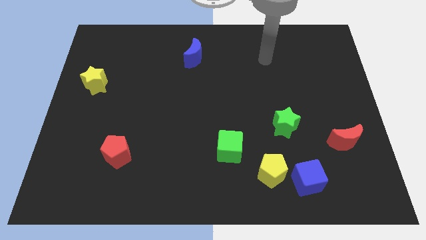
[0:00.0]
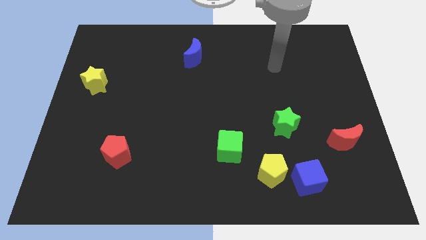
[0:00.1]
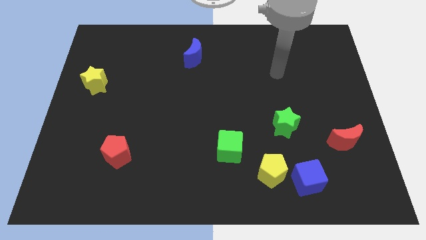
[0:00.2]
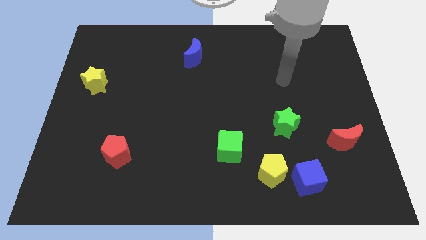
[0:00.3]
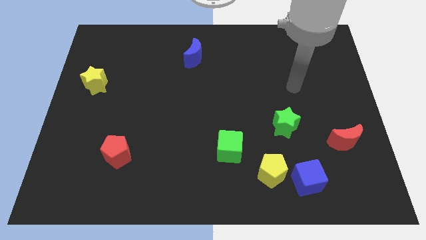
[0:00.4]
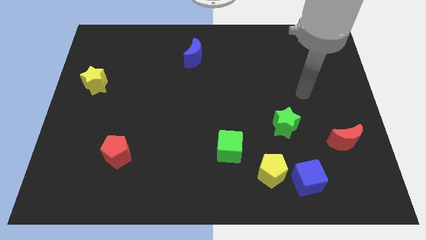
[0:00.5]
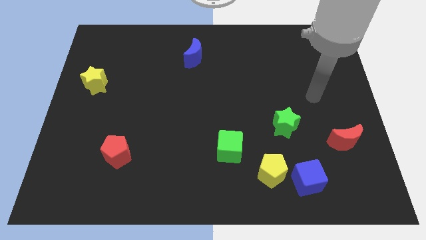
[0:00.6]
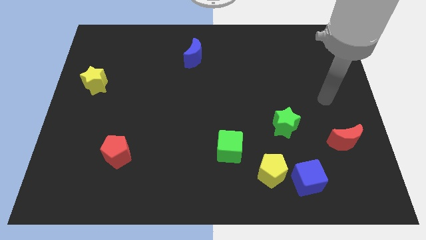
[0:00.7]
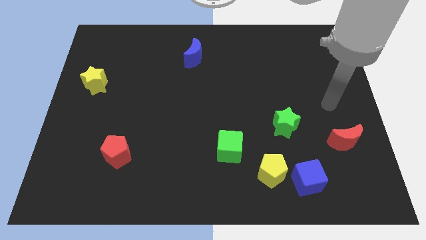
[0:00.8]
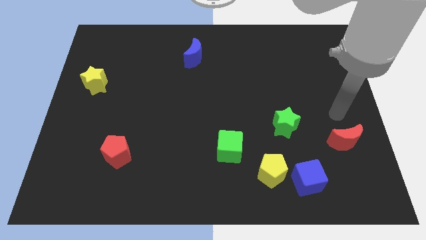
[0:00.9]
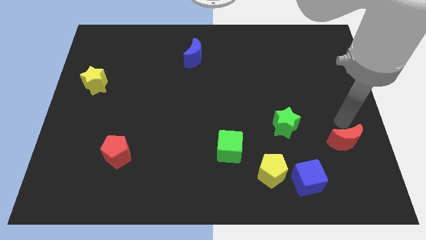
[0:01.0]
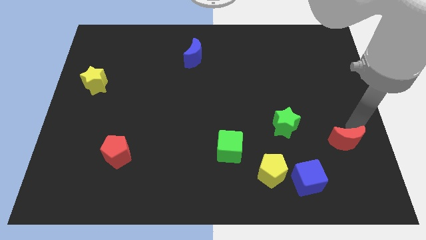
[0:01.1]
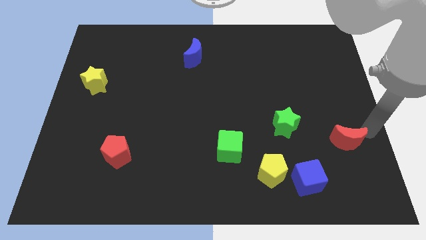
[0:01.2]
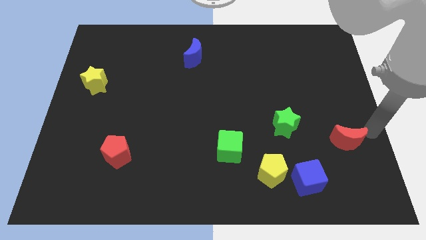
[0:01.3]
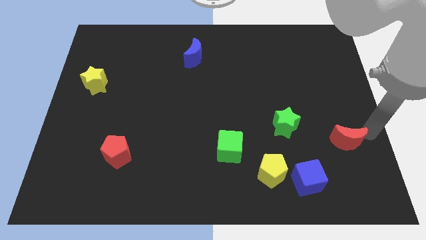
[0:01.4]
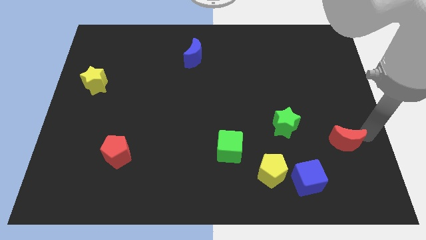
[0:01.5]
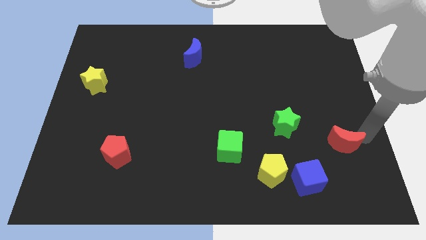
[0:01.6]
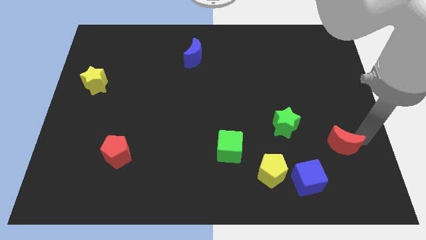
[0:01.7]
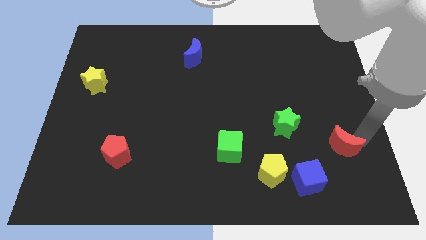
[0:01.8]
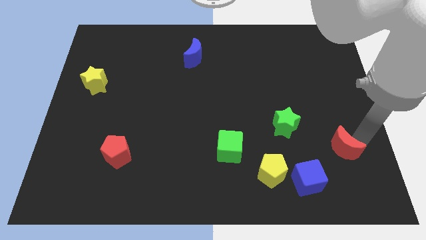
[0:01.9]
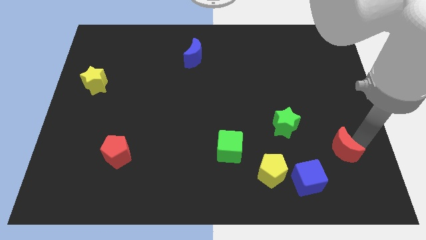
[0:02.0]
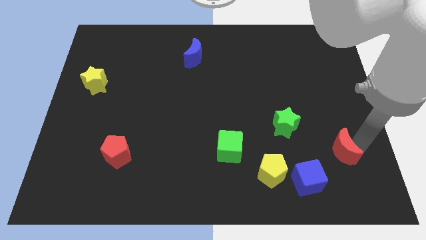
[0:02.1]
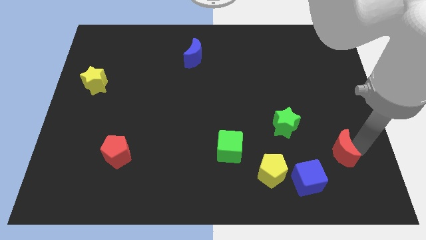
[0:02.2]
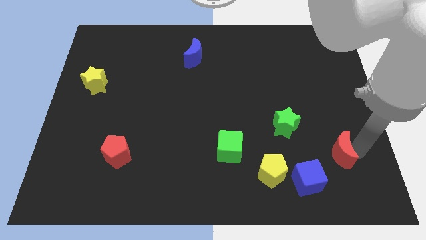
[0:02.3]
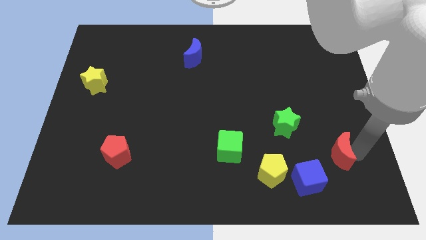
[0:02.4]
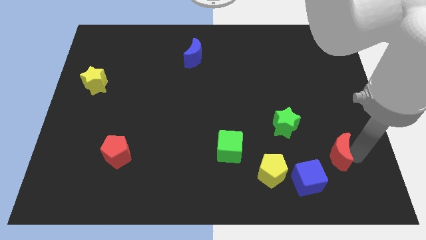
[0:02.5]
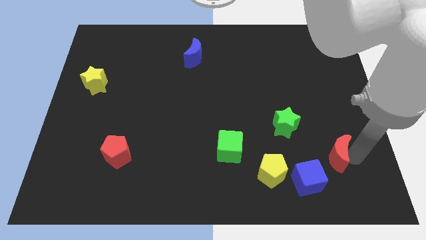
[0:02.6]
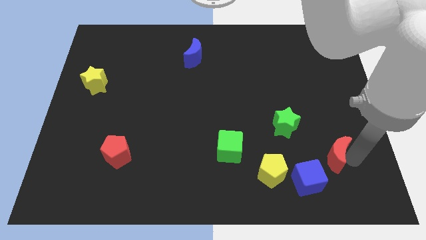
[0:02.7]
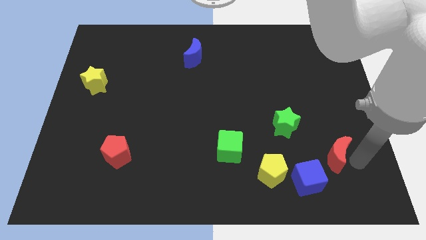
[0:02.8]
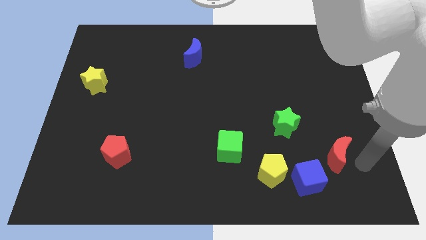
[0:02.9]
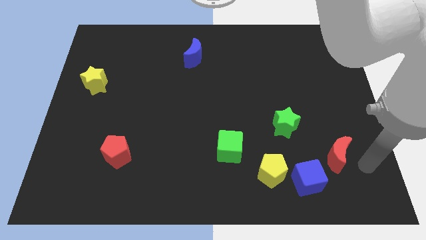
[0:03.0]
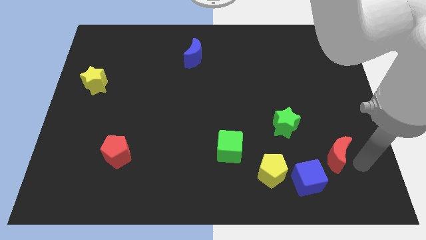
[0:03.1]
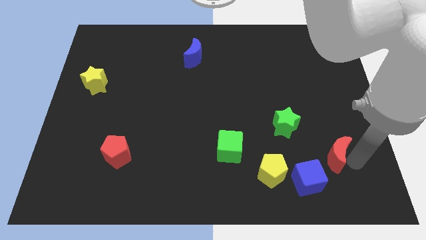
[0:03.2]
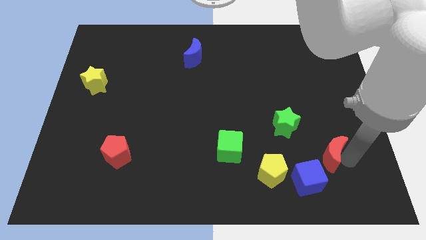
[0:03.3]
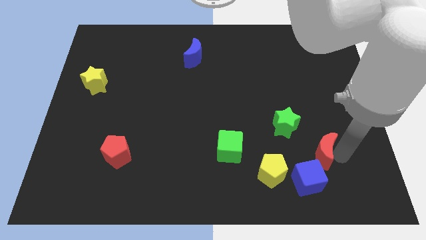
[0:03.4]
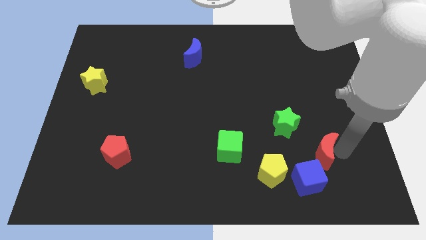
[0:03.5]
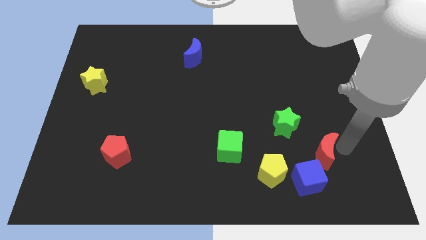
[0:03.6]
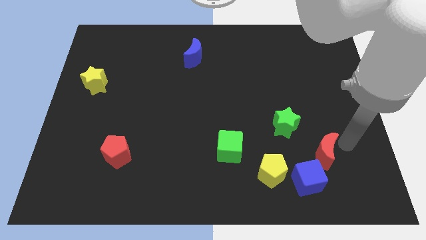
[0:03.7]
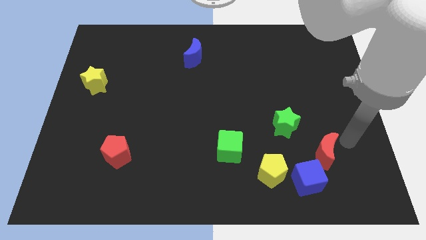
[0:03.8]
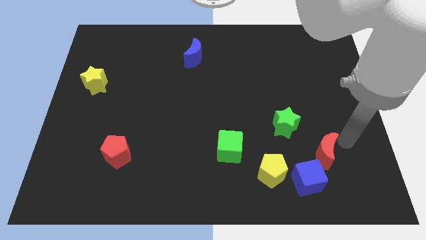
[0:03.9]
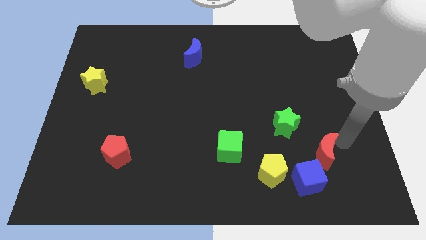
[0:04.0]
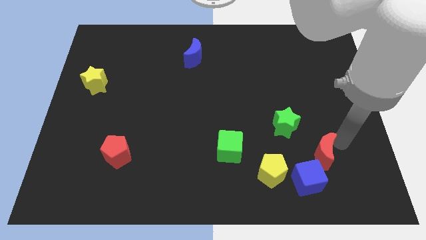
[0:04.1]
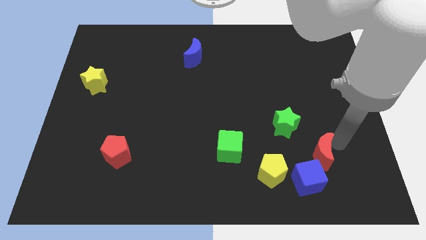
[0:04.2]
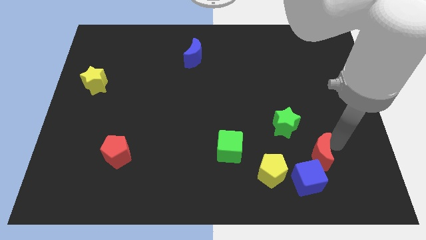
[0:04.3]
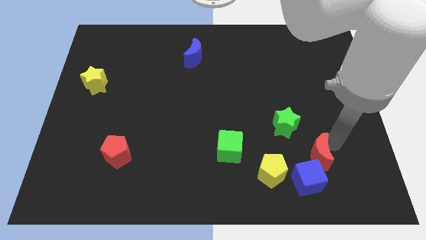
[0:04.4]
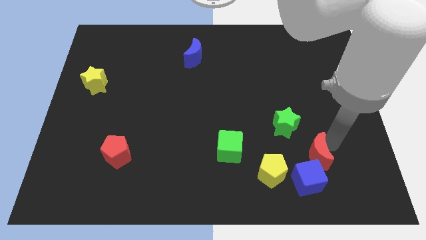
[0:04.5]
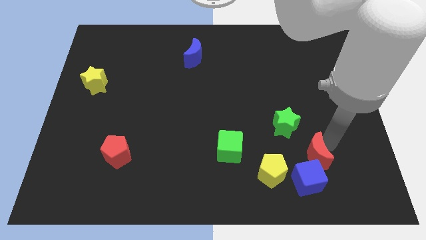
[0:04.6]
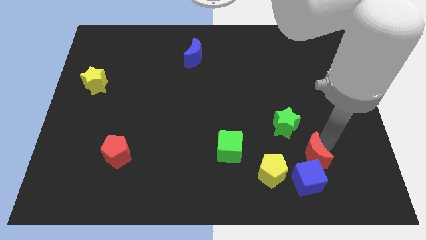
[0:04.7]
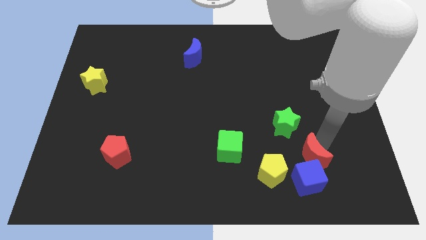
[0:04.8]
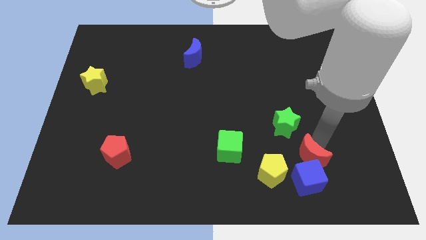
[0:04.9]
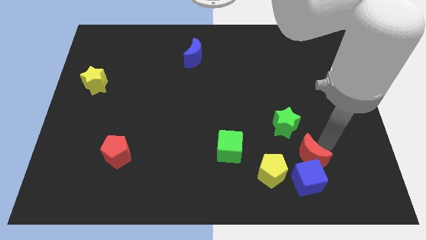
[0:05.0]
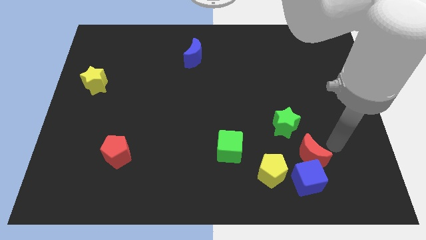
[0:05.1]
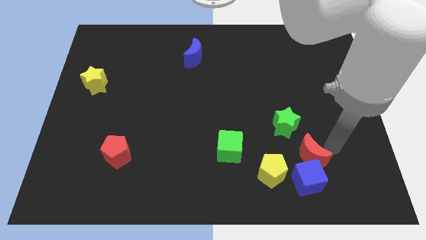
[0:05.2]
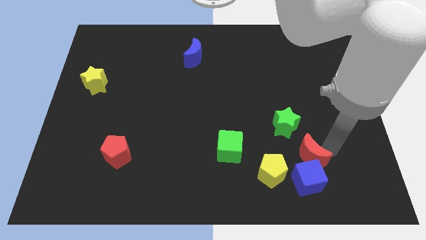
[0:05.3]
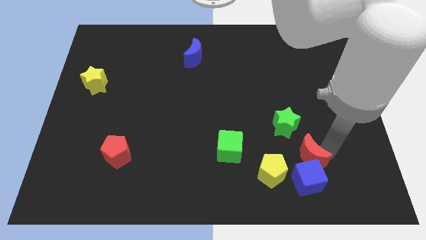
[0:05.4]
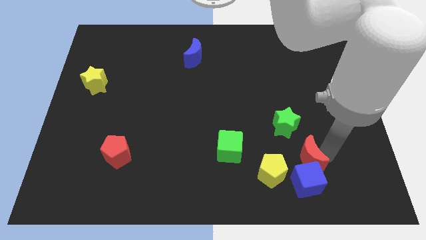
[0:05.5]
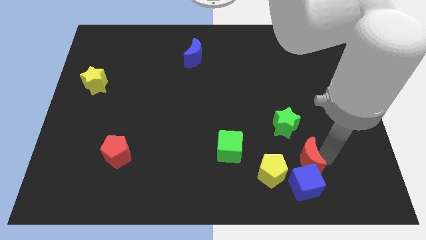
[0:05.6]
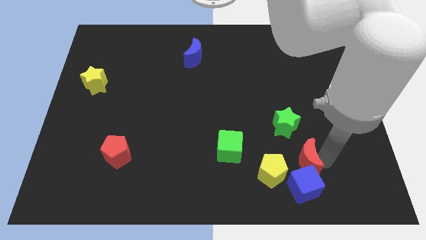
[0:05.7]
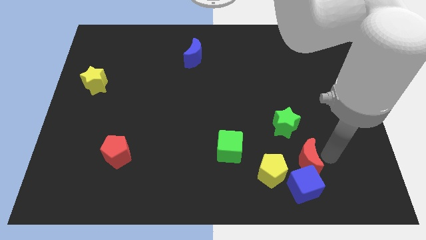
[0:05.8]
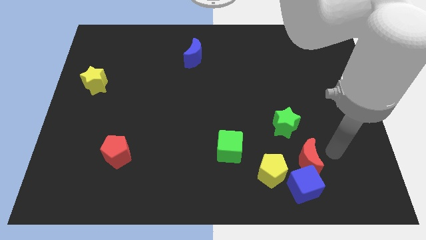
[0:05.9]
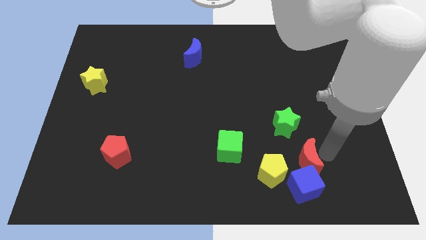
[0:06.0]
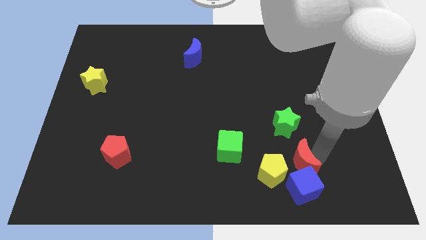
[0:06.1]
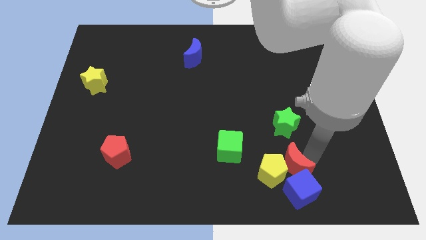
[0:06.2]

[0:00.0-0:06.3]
put the red moon close to the yellow pentagon

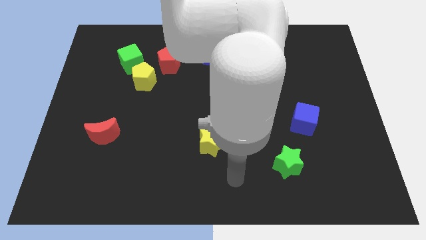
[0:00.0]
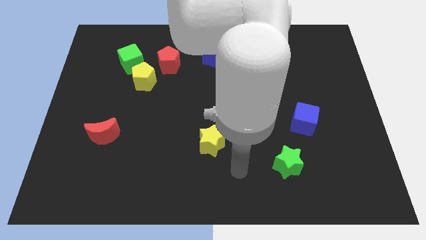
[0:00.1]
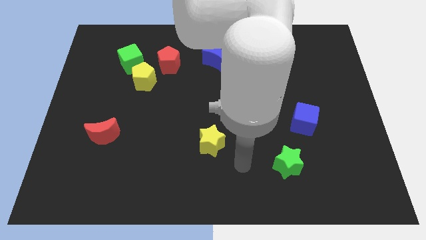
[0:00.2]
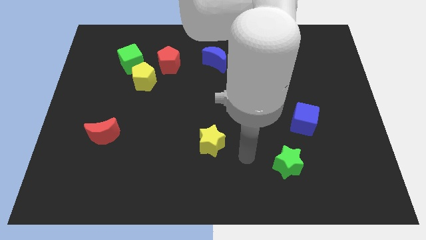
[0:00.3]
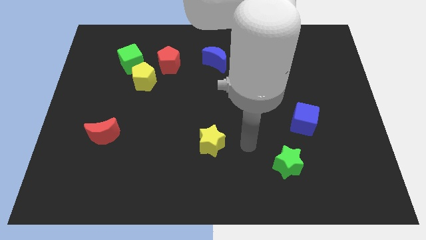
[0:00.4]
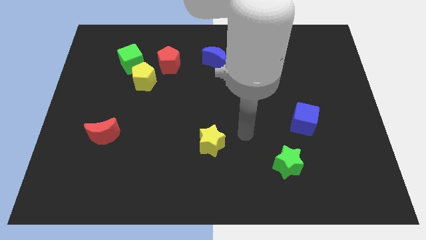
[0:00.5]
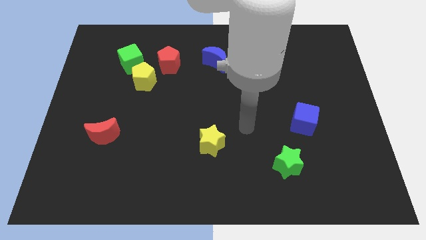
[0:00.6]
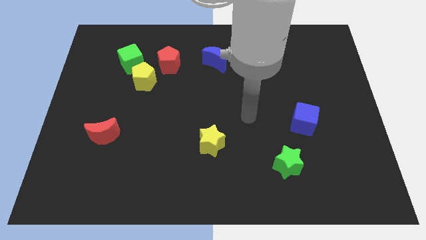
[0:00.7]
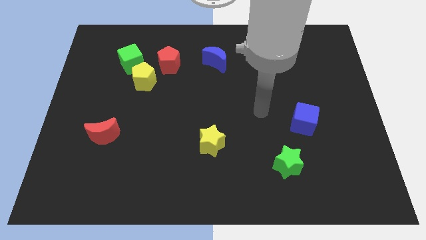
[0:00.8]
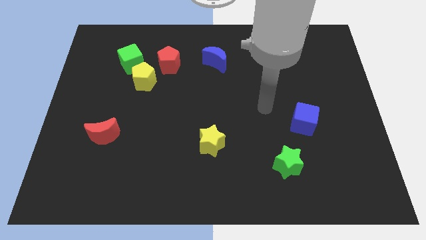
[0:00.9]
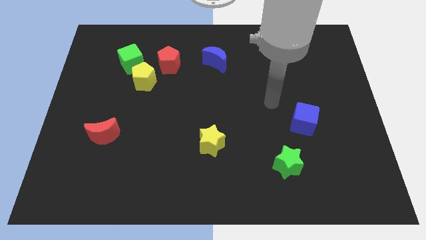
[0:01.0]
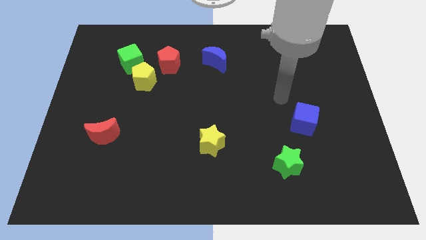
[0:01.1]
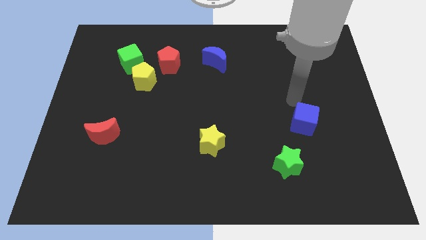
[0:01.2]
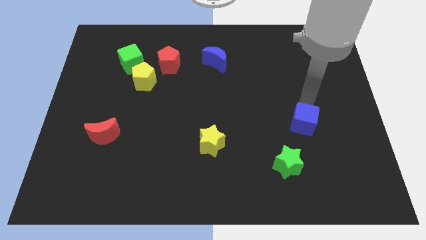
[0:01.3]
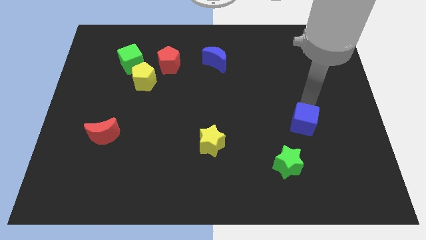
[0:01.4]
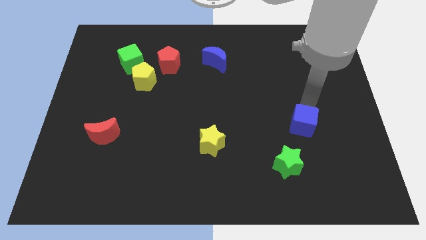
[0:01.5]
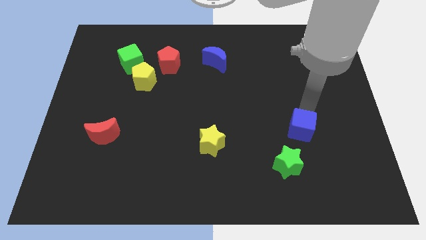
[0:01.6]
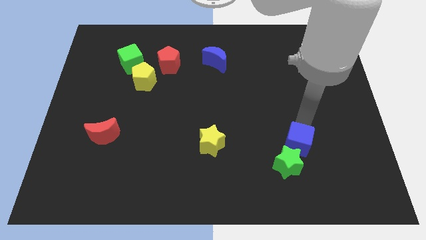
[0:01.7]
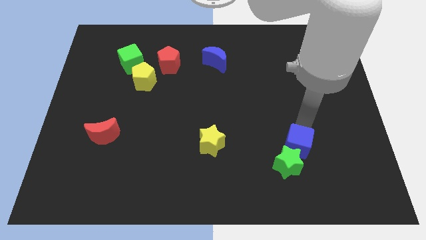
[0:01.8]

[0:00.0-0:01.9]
slide the blue cube next to the green star
